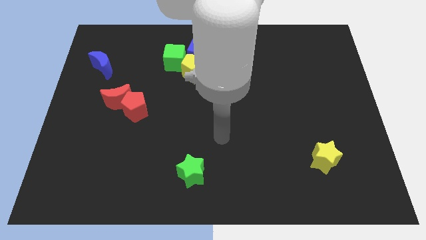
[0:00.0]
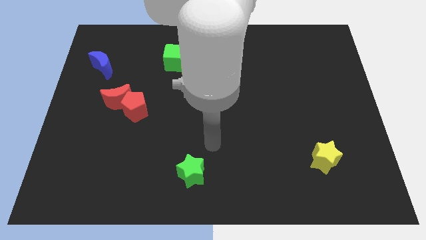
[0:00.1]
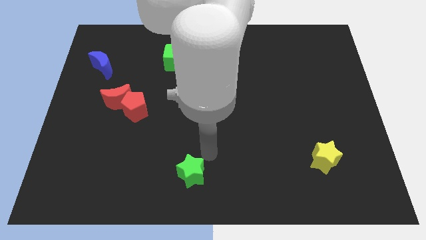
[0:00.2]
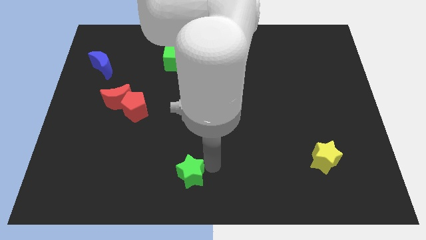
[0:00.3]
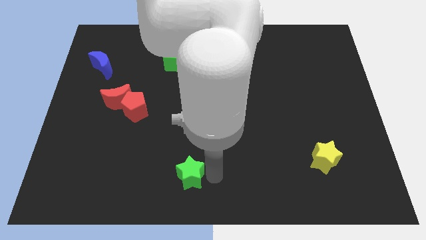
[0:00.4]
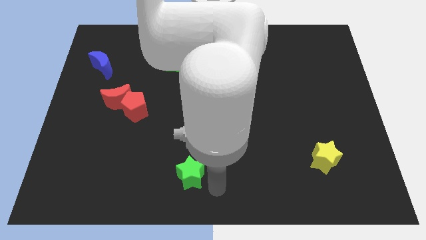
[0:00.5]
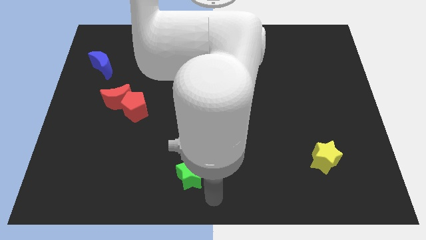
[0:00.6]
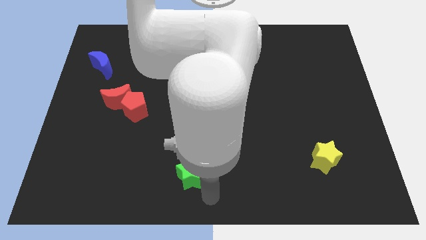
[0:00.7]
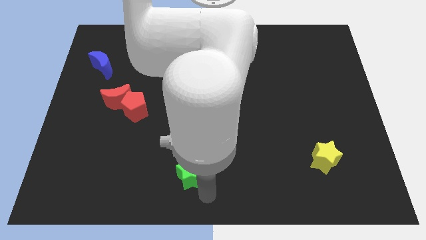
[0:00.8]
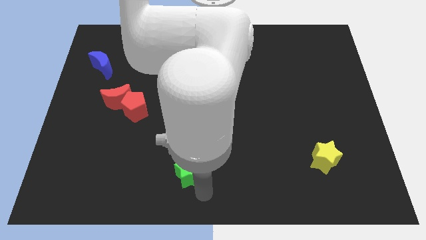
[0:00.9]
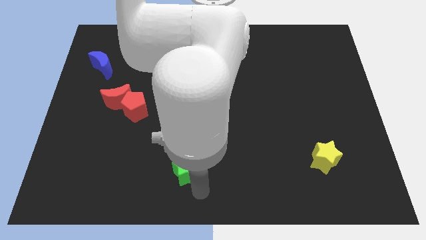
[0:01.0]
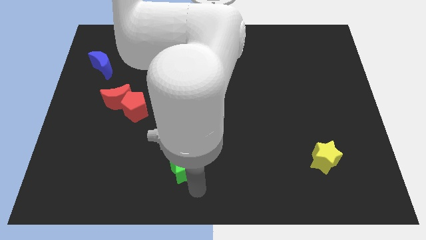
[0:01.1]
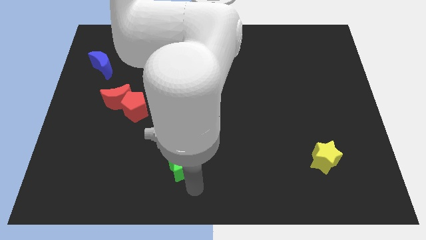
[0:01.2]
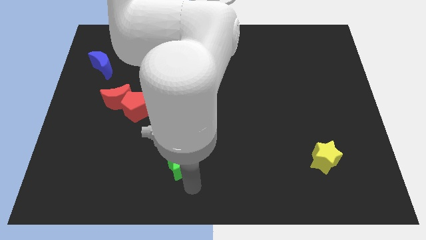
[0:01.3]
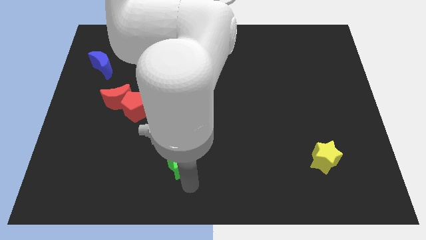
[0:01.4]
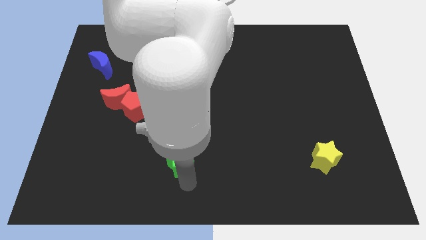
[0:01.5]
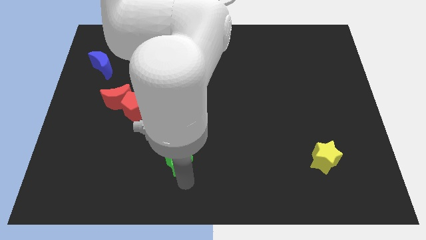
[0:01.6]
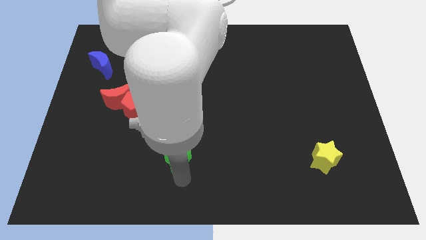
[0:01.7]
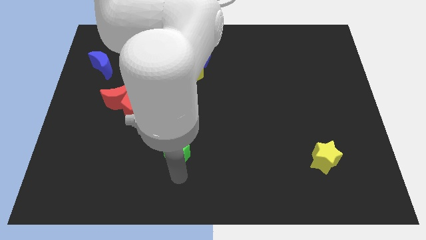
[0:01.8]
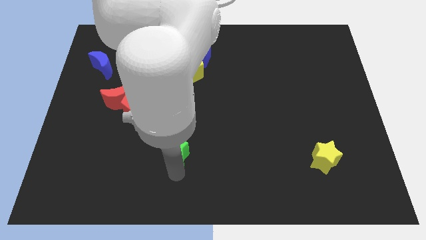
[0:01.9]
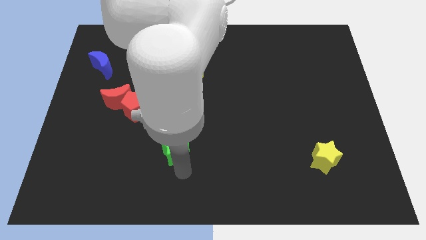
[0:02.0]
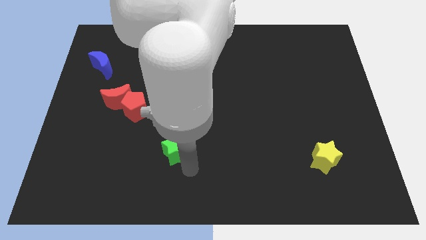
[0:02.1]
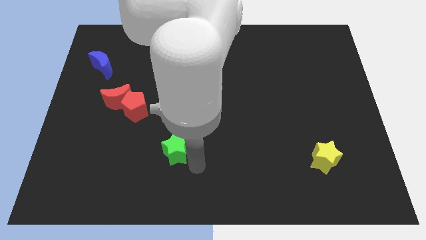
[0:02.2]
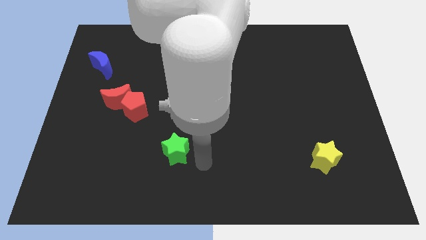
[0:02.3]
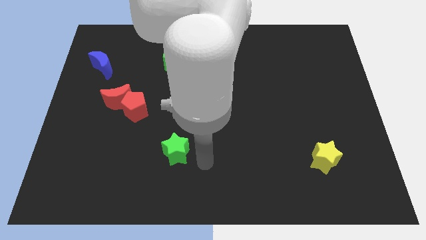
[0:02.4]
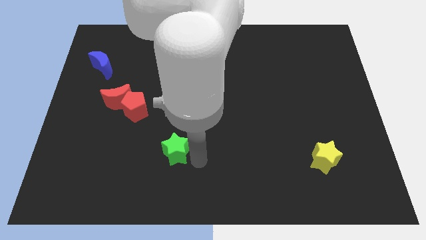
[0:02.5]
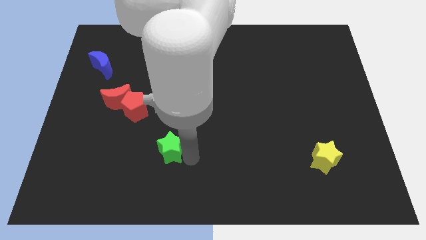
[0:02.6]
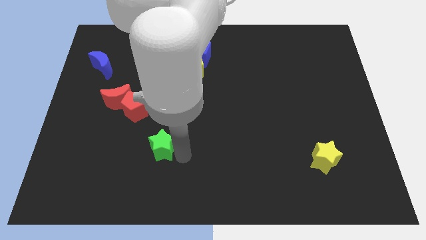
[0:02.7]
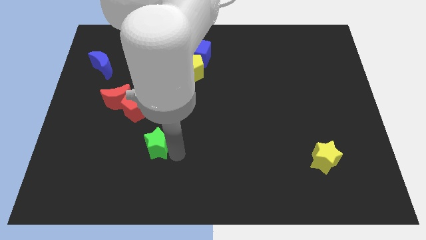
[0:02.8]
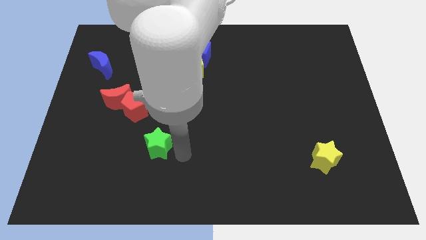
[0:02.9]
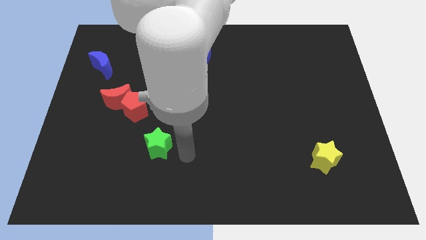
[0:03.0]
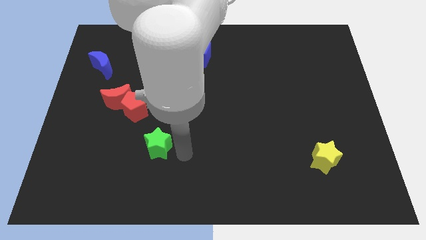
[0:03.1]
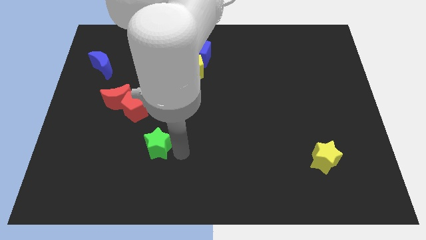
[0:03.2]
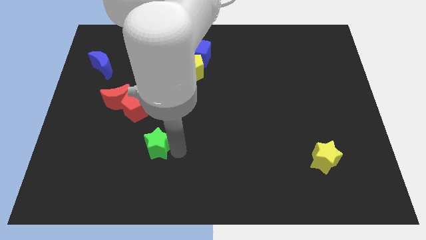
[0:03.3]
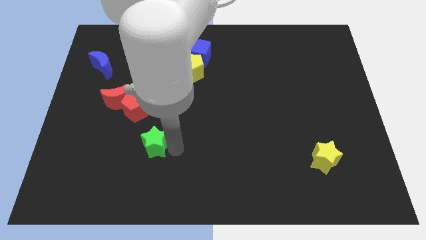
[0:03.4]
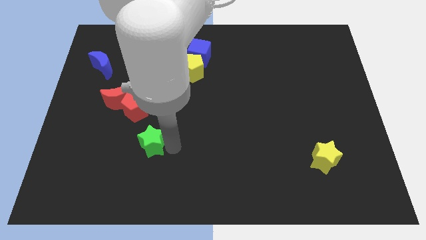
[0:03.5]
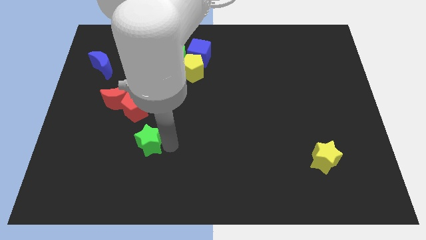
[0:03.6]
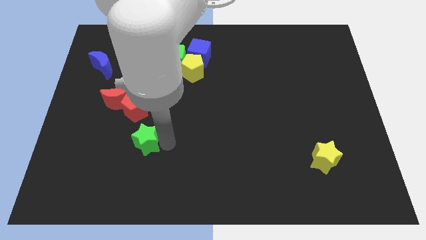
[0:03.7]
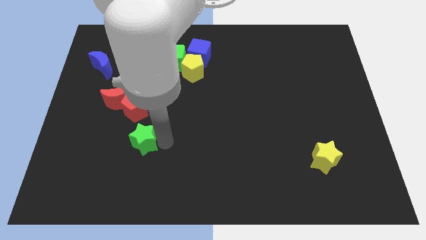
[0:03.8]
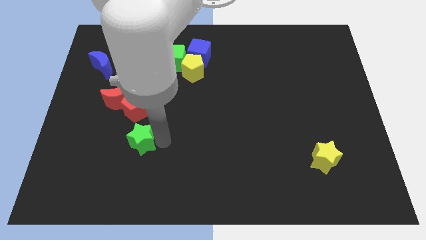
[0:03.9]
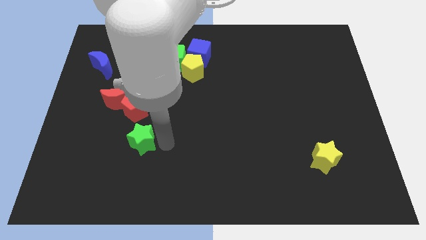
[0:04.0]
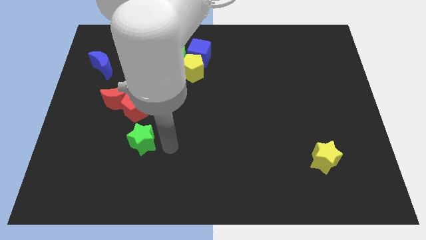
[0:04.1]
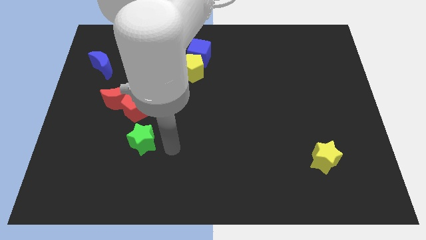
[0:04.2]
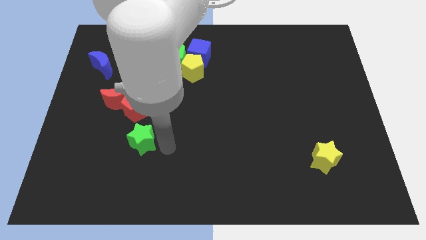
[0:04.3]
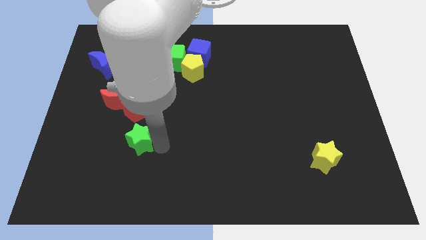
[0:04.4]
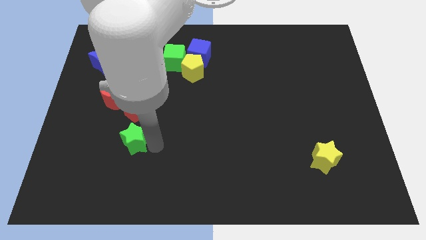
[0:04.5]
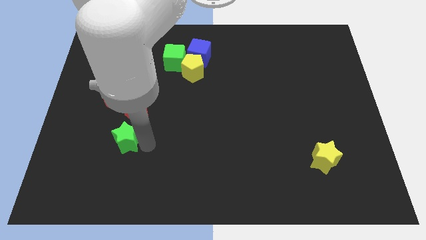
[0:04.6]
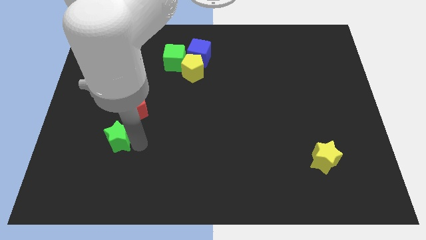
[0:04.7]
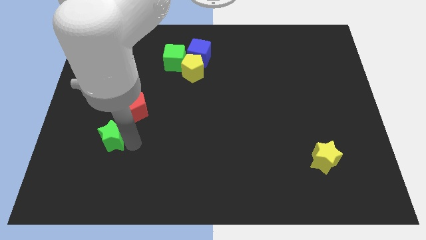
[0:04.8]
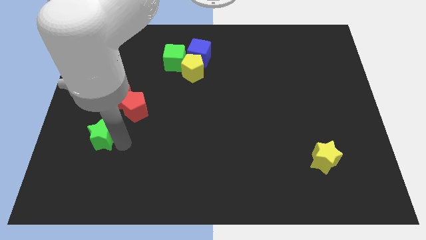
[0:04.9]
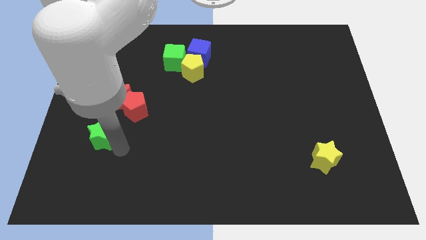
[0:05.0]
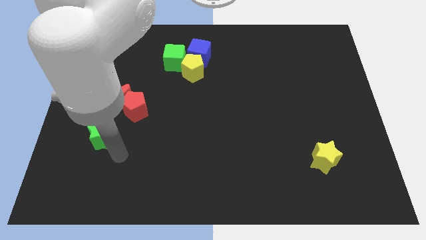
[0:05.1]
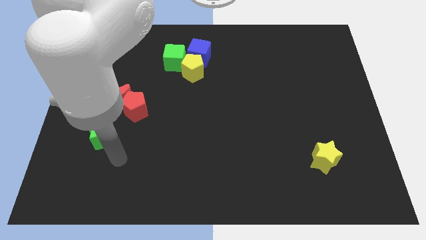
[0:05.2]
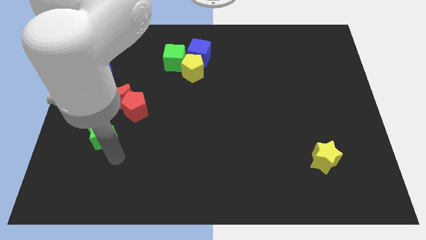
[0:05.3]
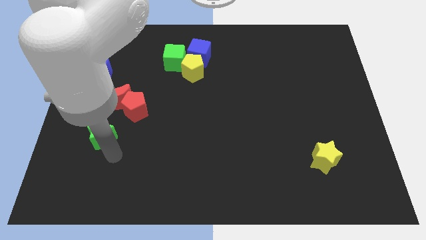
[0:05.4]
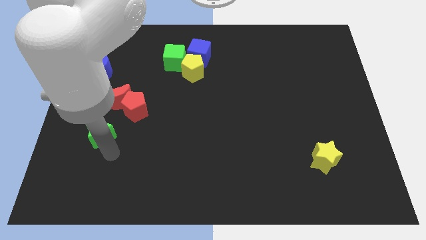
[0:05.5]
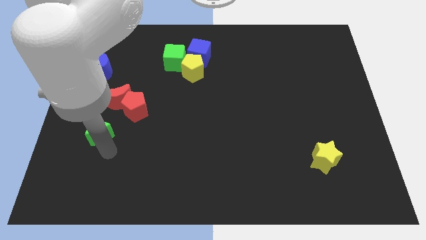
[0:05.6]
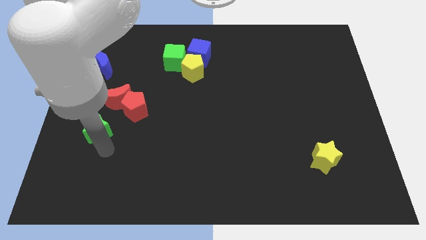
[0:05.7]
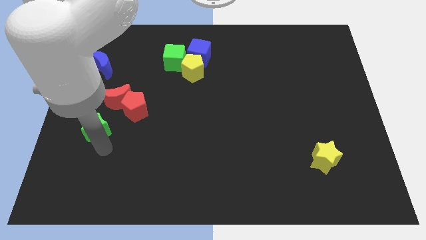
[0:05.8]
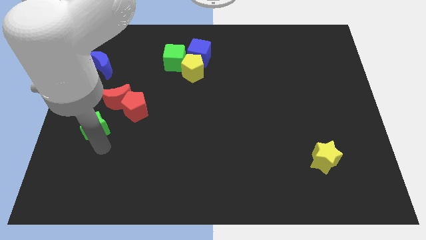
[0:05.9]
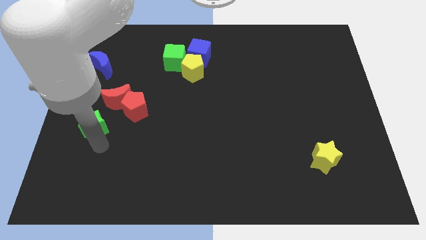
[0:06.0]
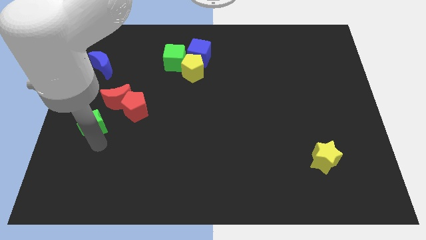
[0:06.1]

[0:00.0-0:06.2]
move the green star to the left side of the board
